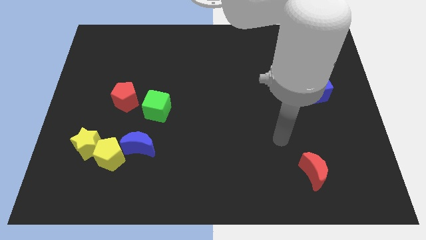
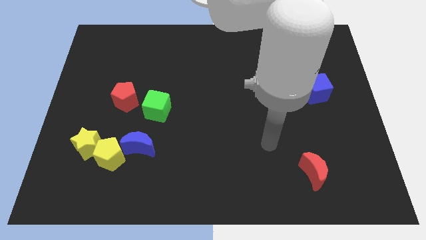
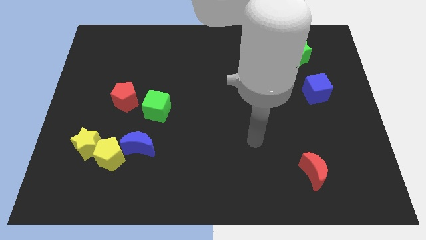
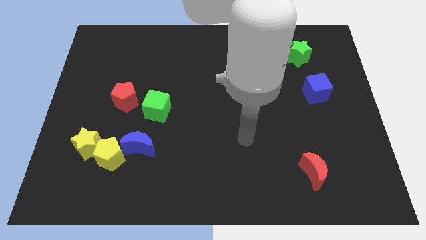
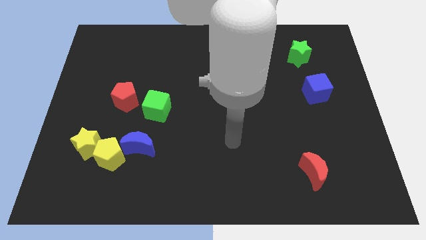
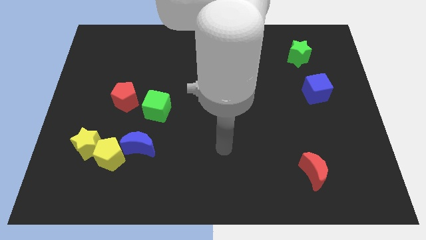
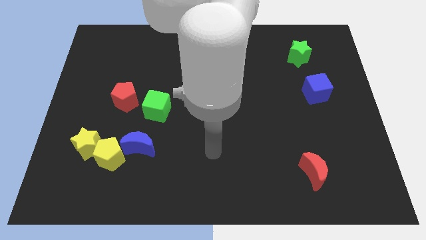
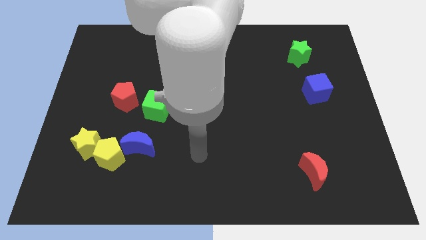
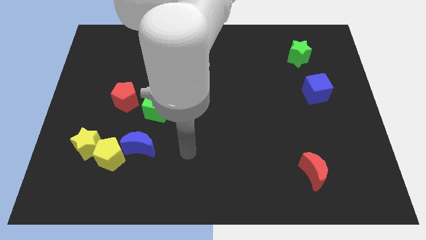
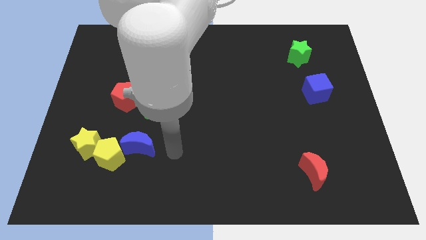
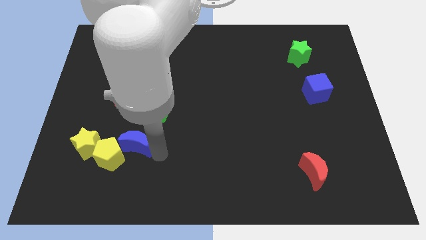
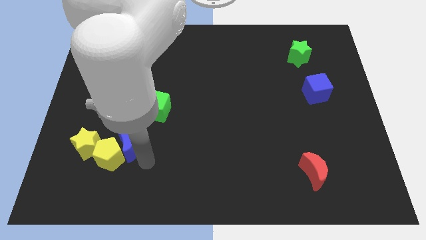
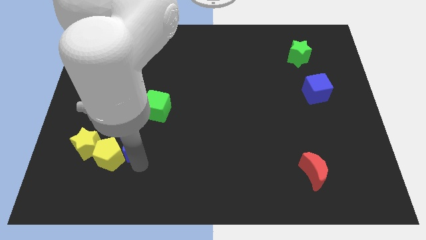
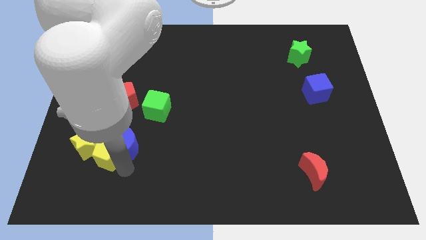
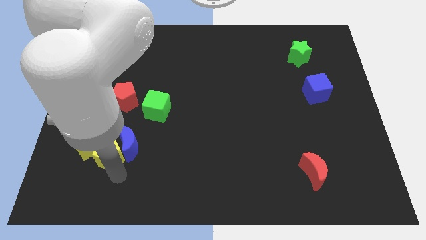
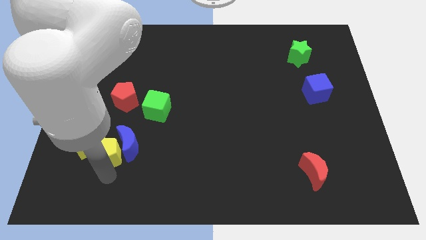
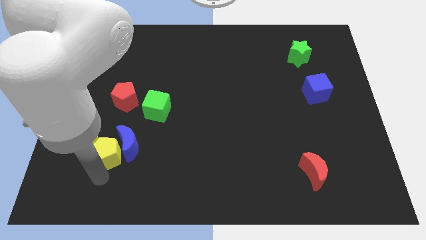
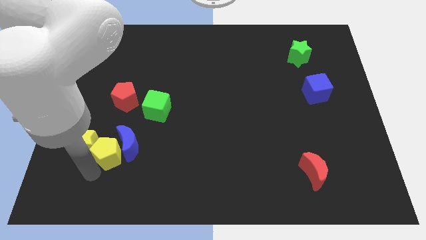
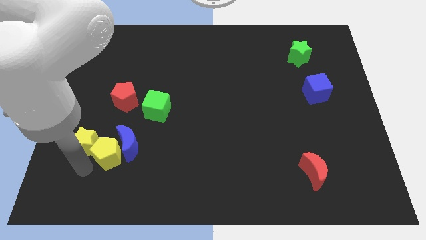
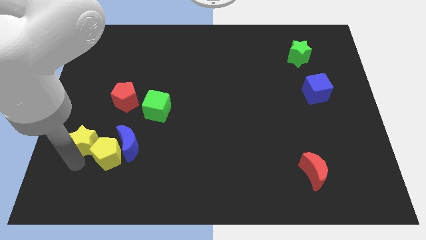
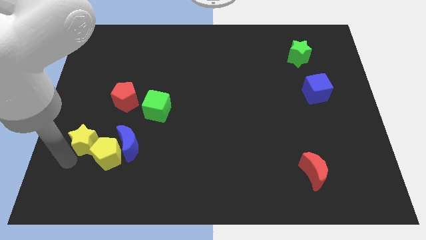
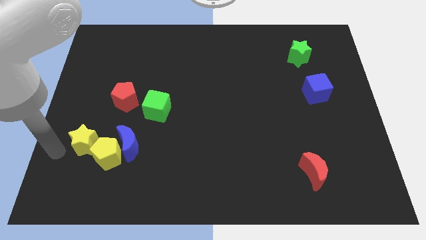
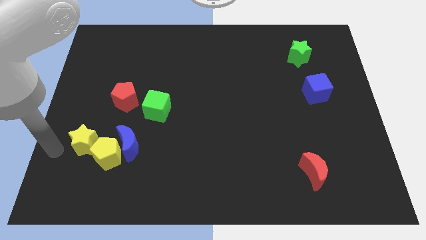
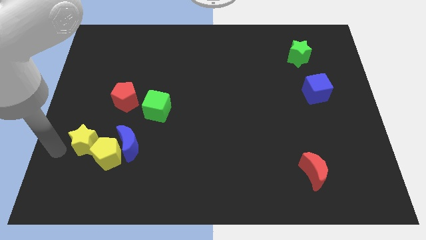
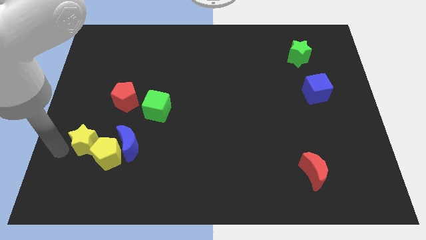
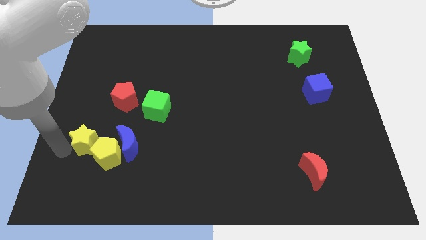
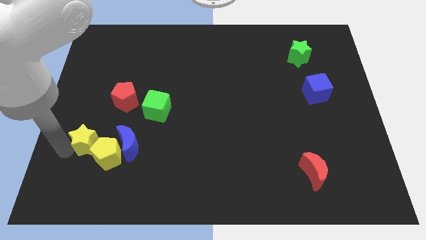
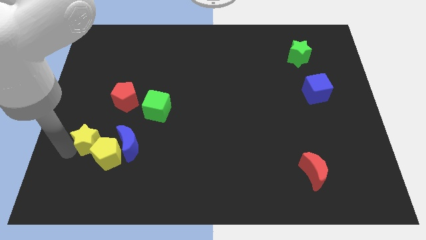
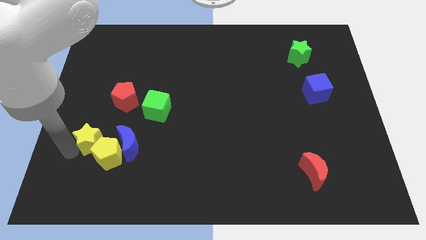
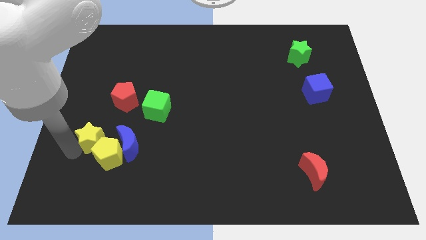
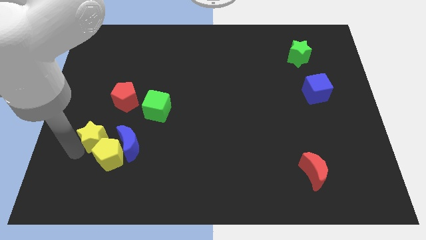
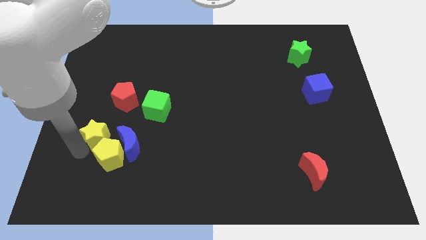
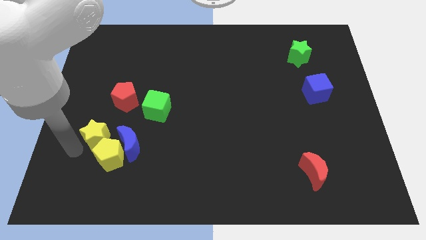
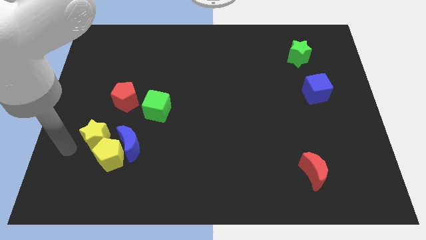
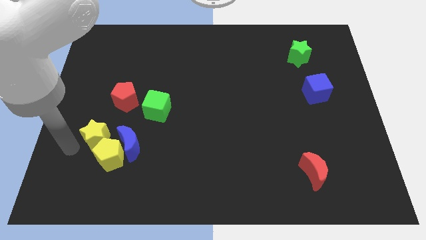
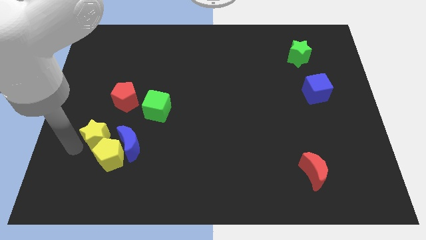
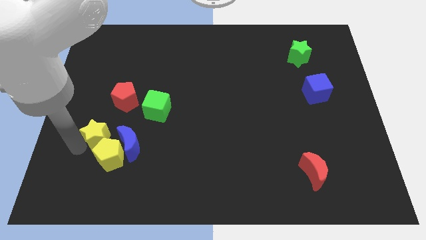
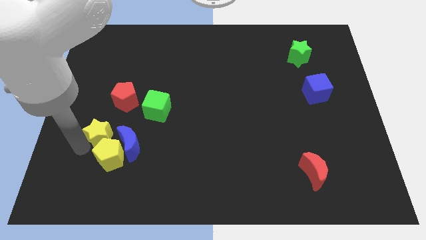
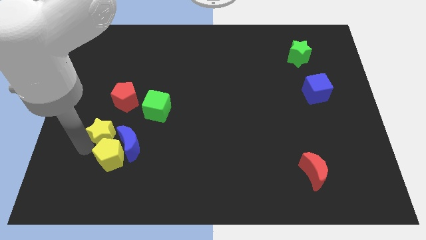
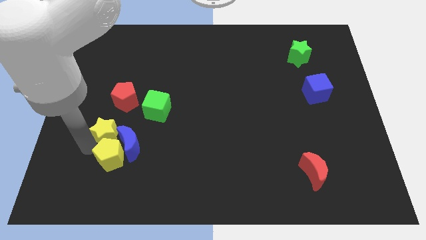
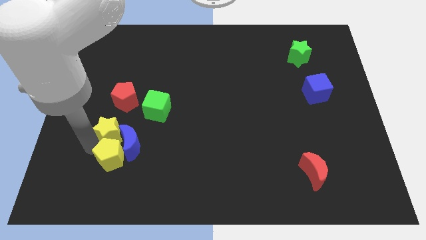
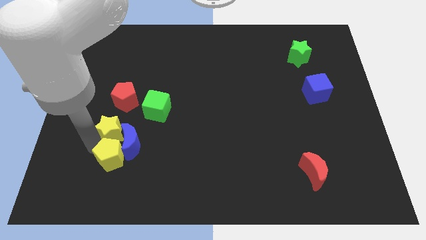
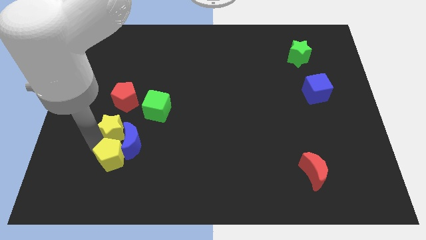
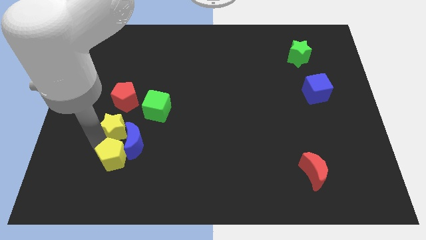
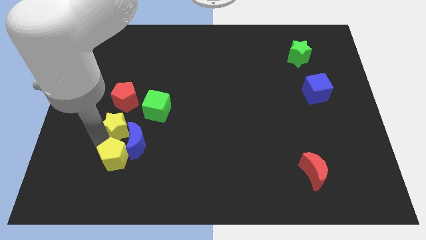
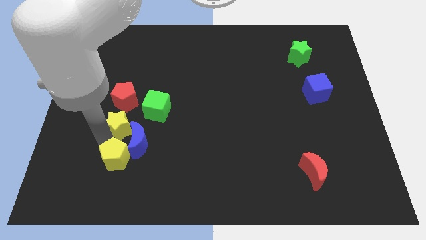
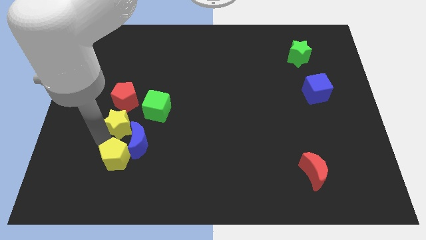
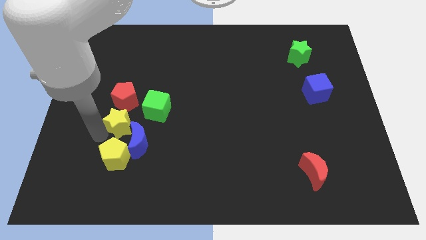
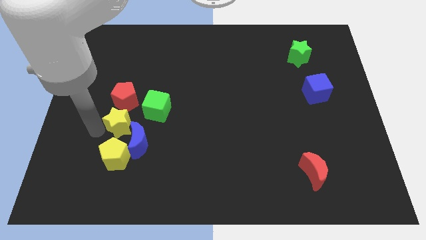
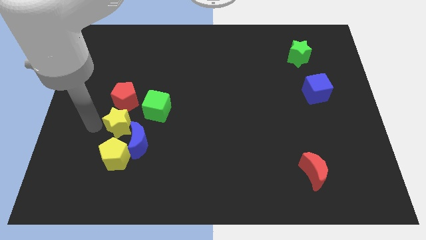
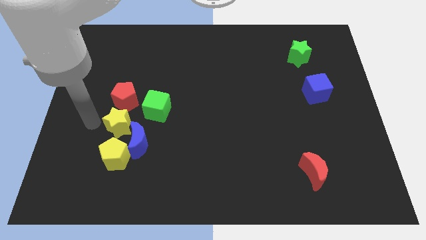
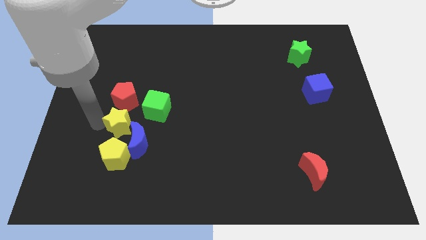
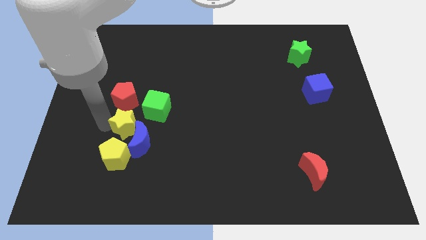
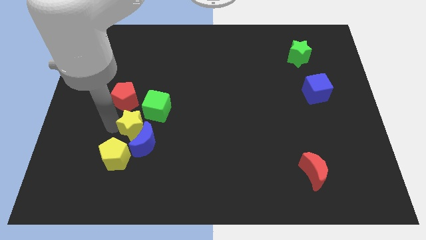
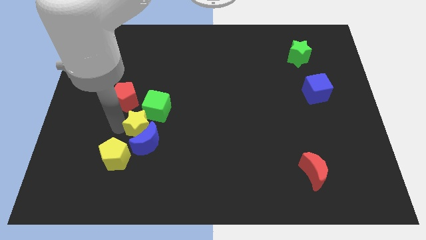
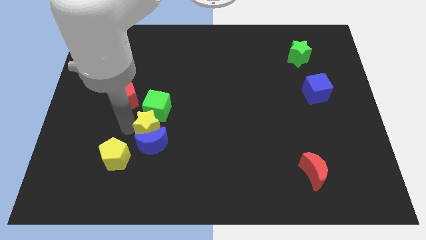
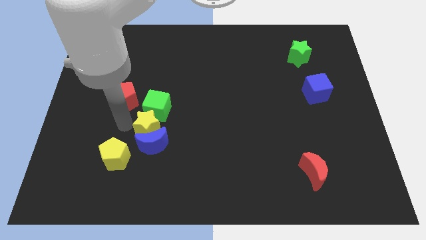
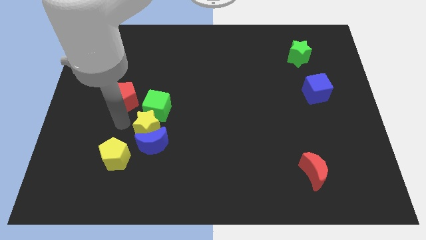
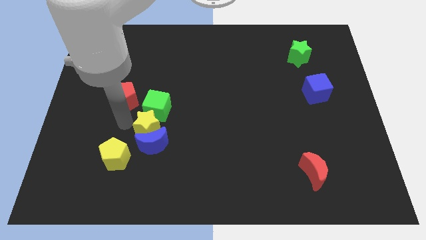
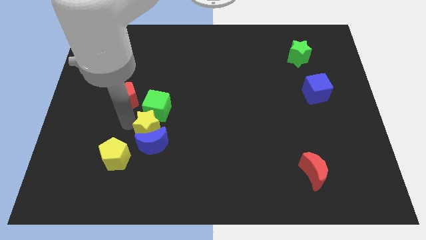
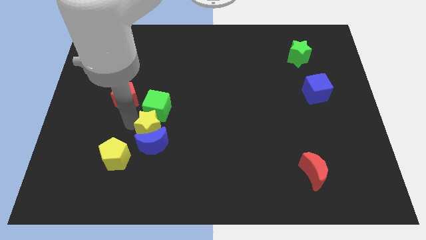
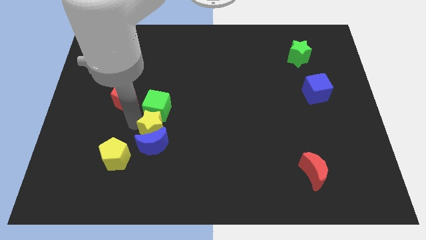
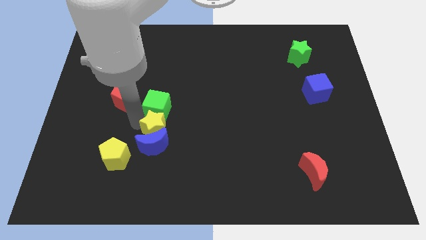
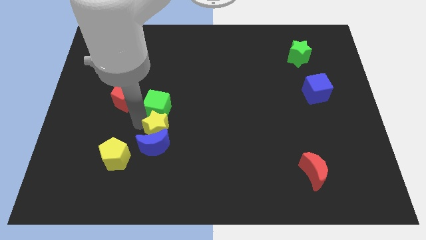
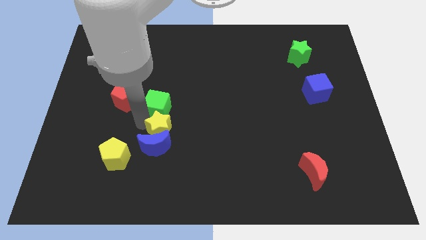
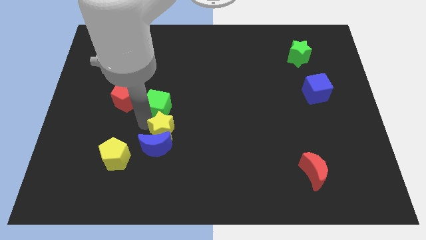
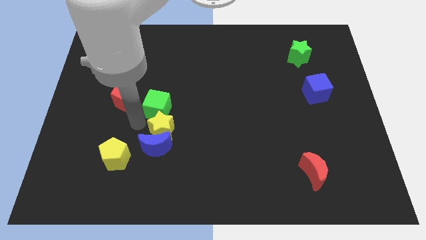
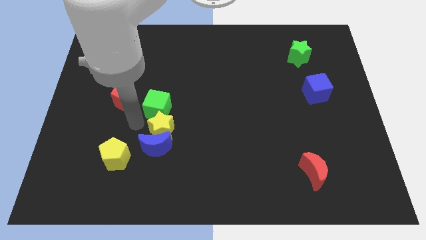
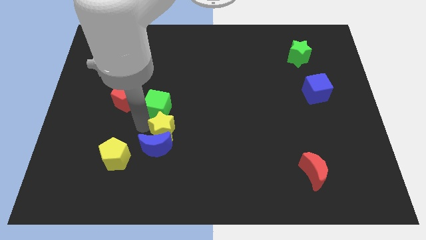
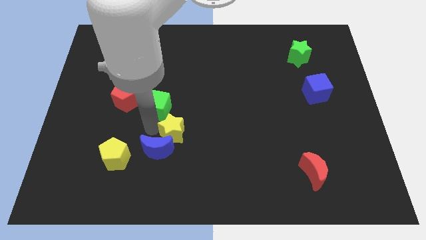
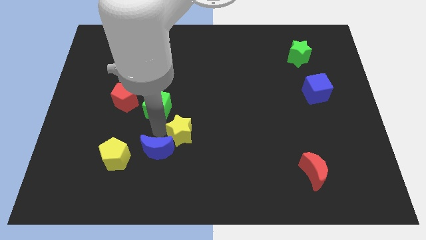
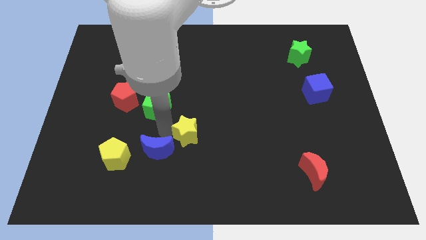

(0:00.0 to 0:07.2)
slide the yellow star to the right

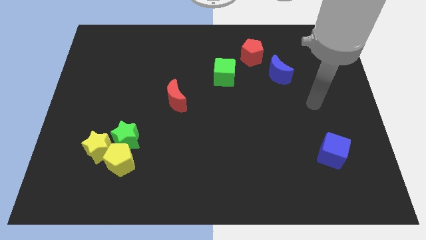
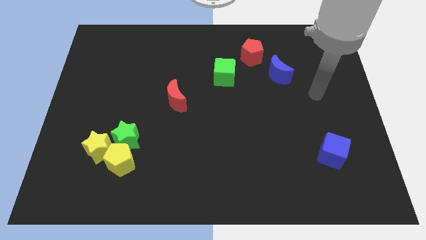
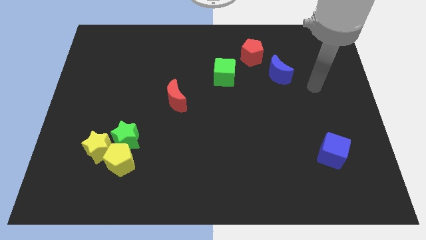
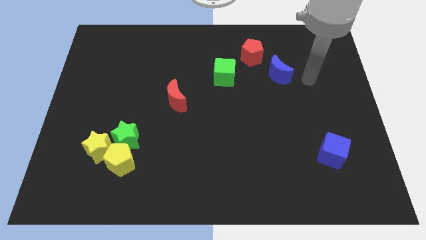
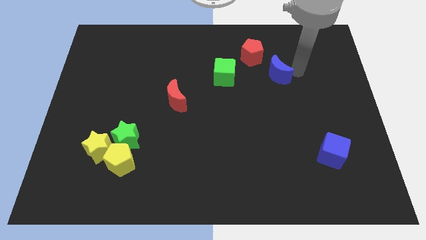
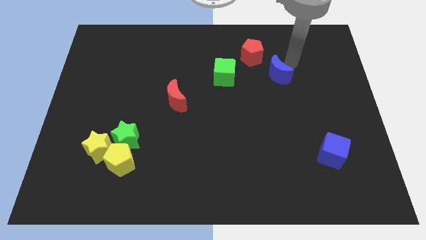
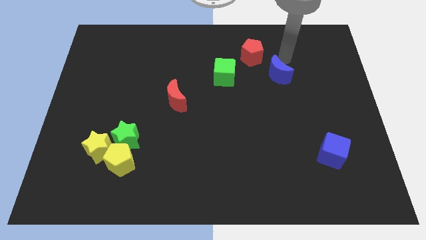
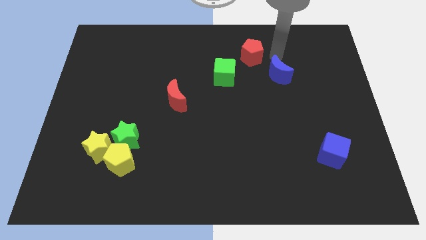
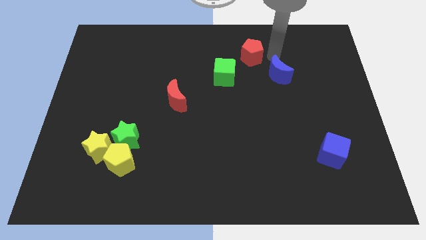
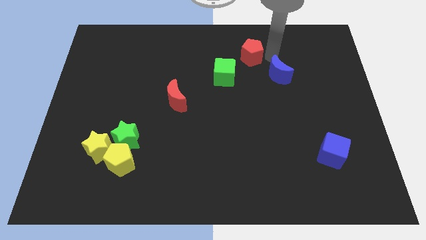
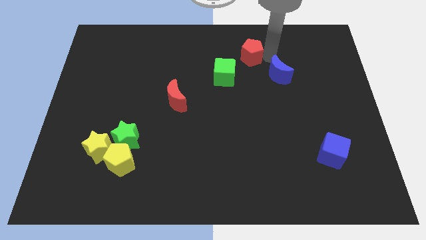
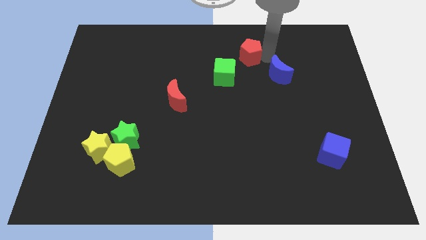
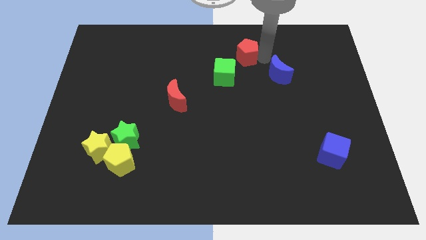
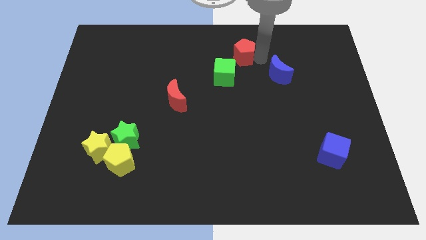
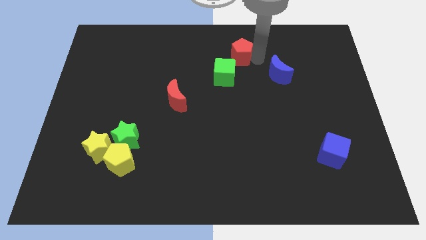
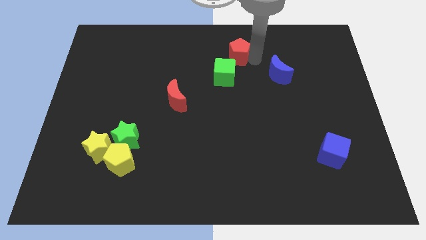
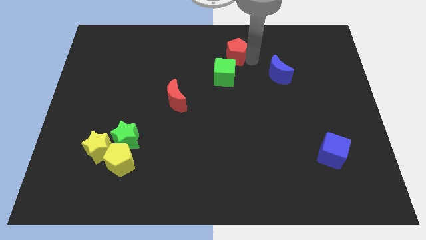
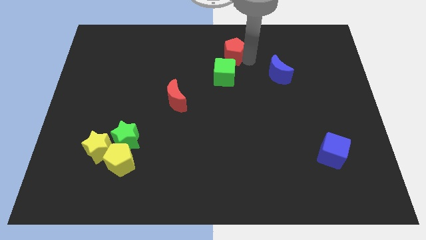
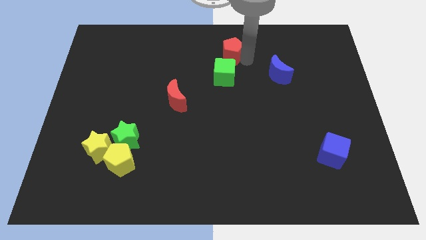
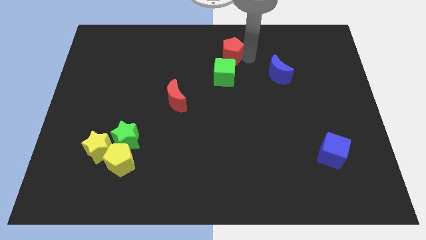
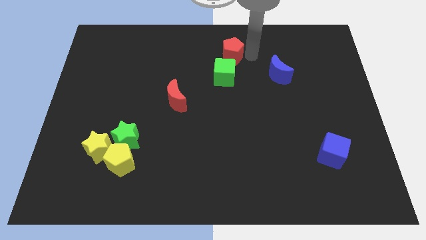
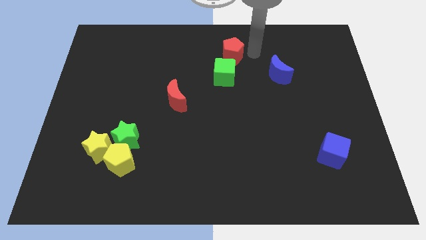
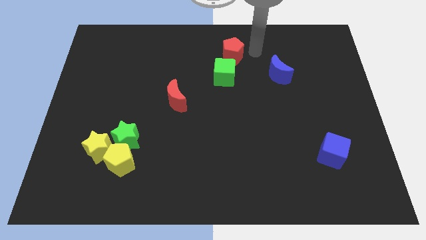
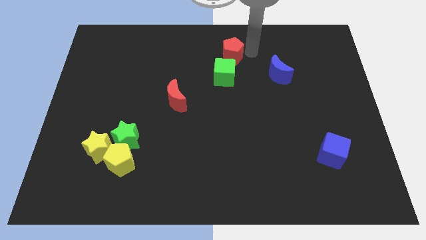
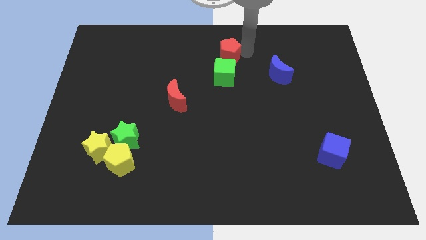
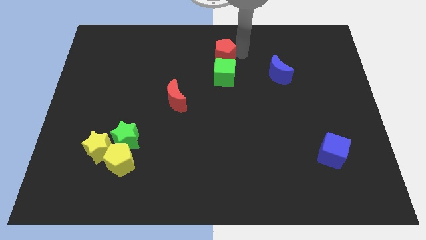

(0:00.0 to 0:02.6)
slightly move the red pentagon left
